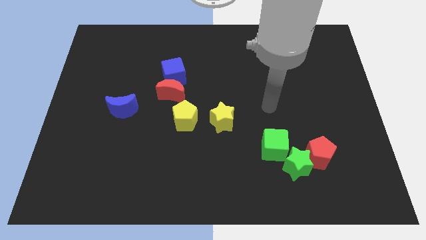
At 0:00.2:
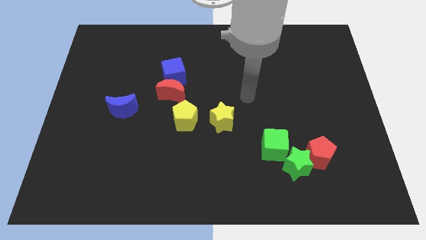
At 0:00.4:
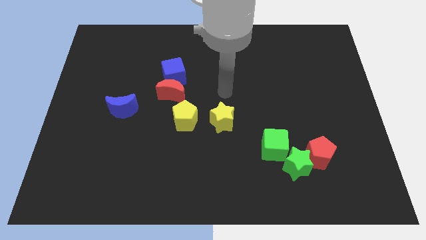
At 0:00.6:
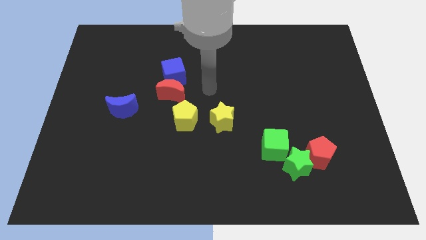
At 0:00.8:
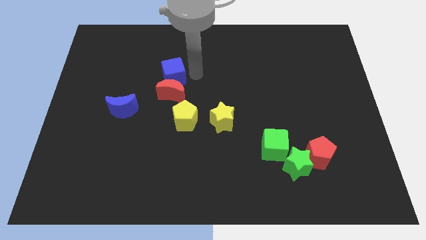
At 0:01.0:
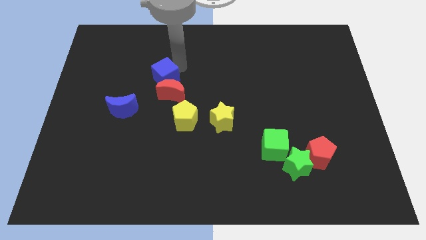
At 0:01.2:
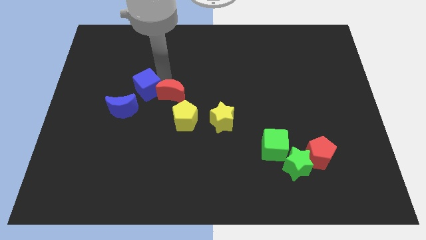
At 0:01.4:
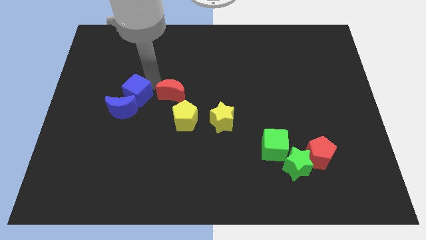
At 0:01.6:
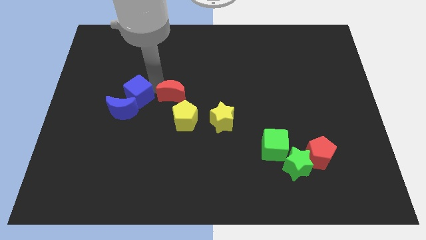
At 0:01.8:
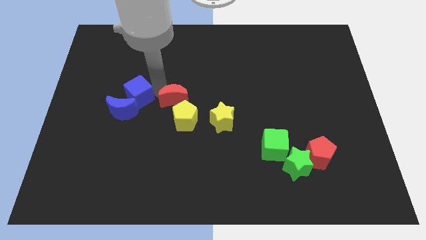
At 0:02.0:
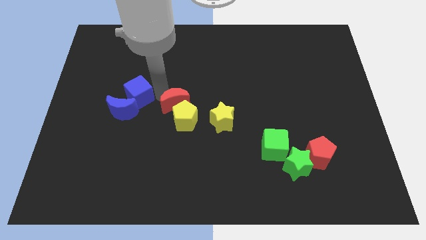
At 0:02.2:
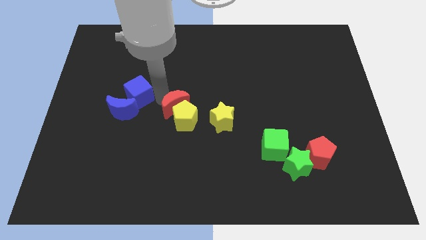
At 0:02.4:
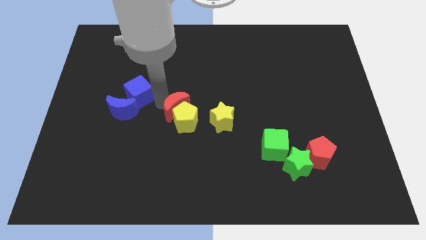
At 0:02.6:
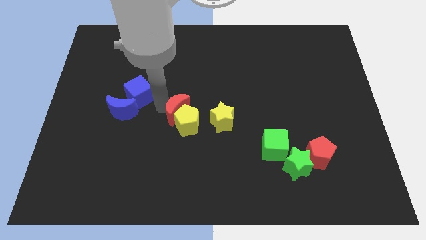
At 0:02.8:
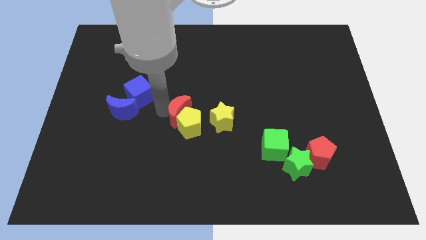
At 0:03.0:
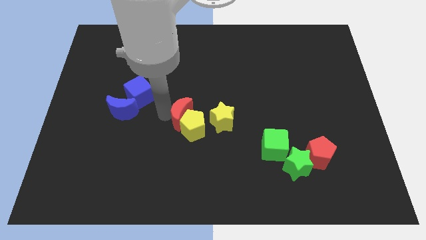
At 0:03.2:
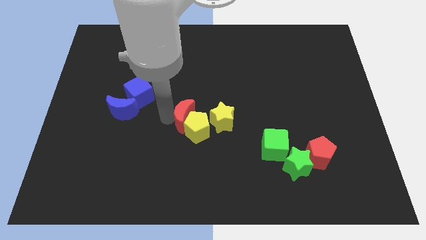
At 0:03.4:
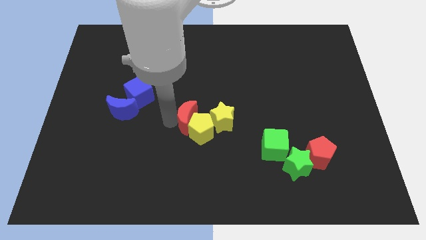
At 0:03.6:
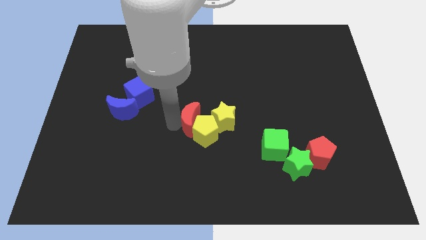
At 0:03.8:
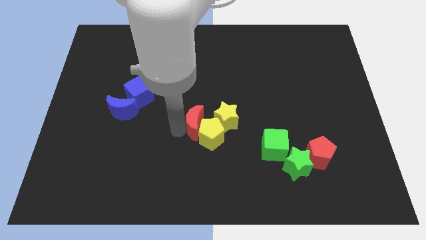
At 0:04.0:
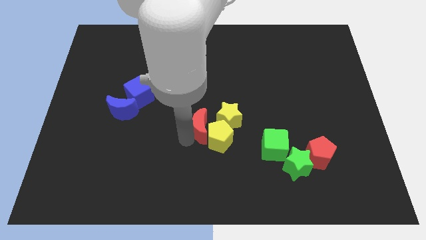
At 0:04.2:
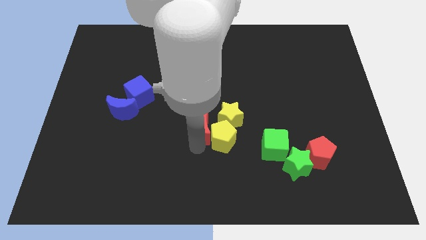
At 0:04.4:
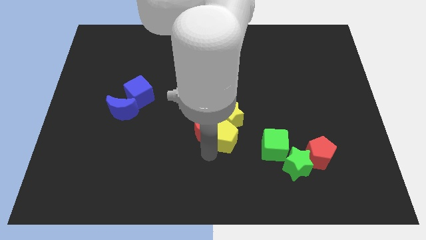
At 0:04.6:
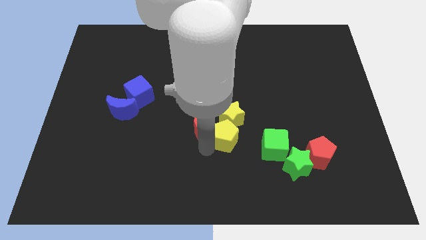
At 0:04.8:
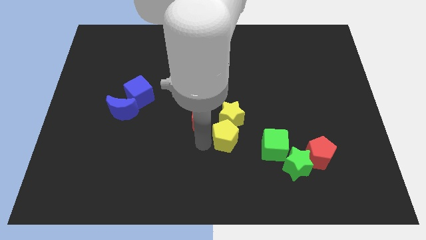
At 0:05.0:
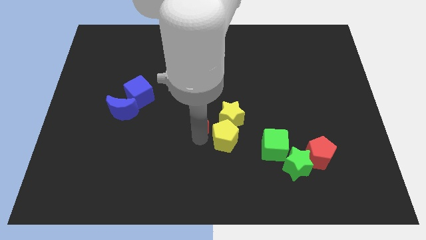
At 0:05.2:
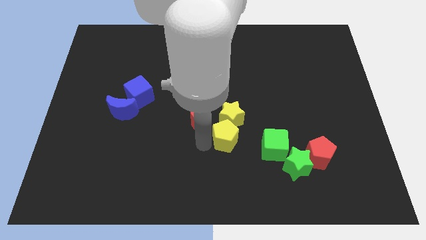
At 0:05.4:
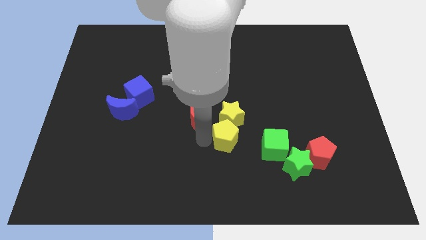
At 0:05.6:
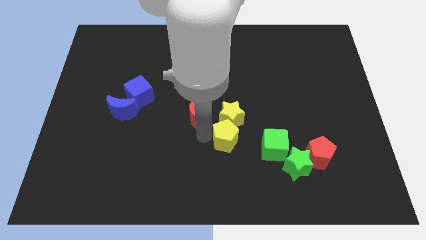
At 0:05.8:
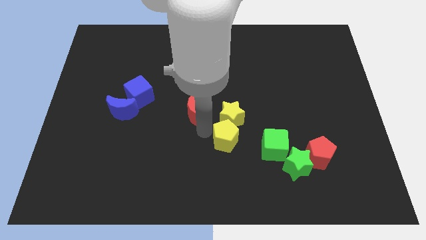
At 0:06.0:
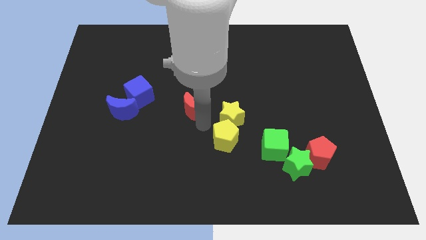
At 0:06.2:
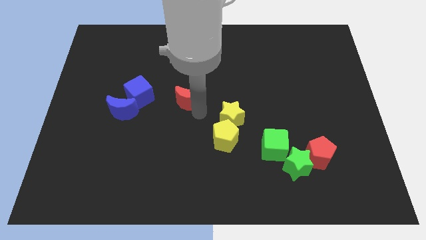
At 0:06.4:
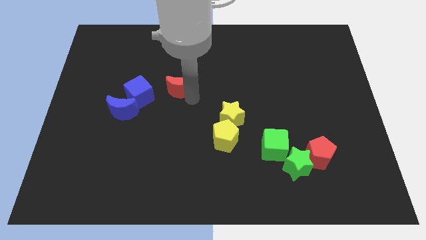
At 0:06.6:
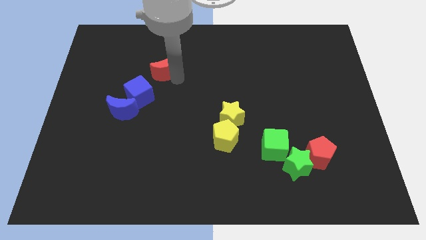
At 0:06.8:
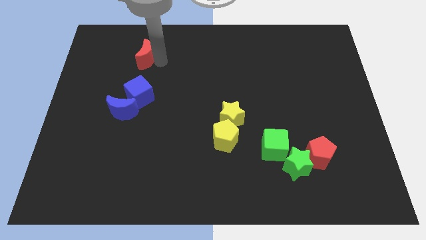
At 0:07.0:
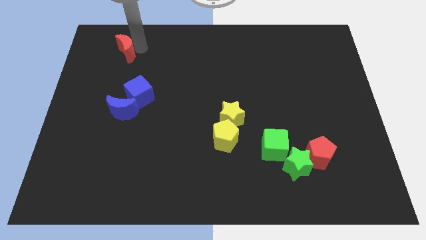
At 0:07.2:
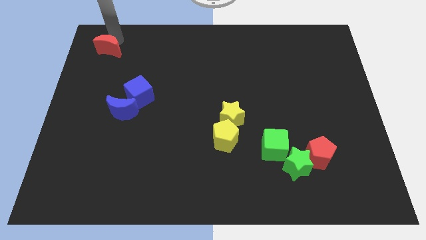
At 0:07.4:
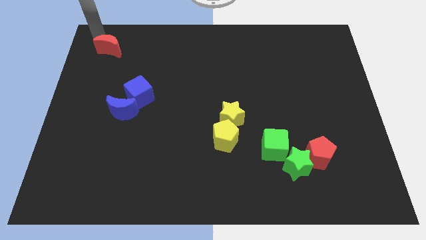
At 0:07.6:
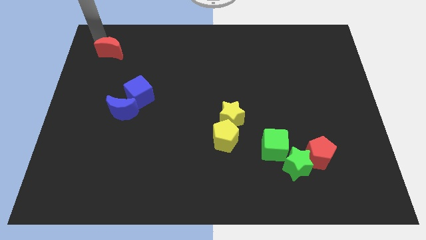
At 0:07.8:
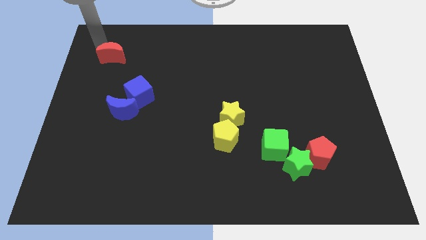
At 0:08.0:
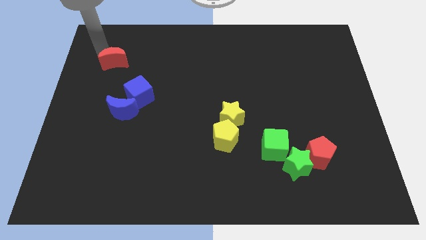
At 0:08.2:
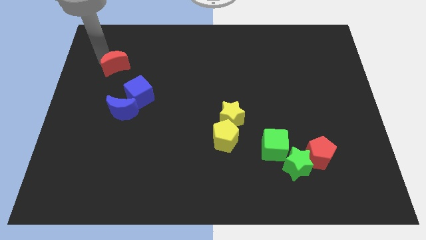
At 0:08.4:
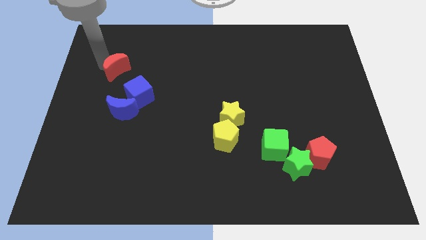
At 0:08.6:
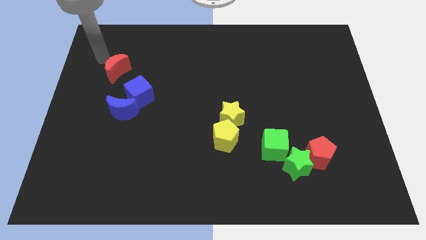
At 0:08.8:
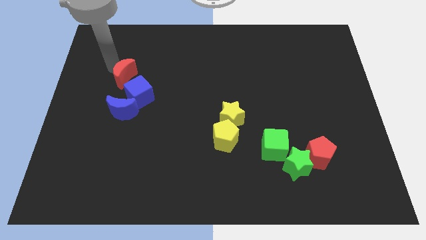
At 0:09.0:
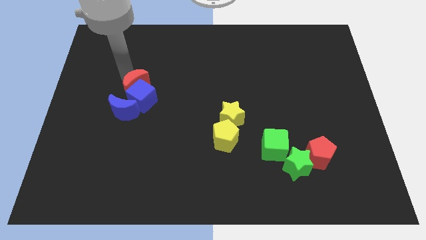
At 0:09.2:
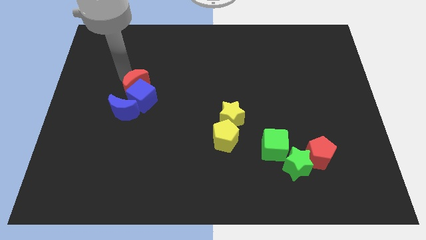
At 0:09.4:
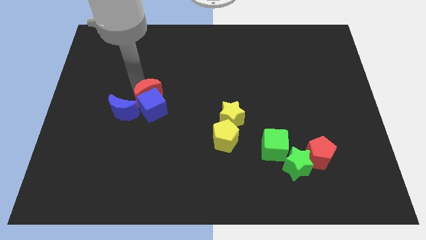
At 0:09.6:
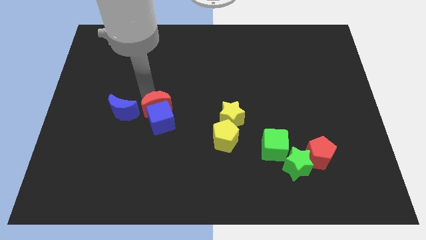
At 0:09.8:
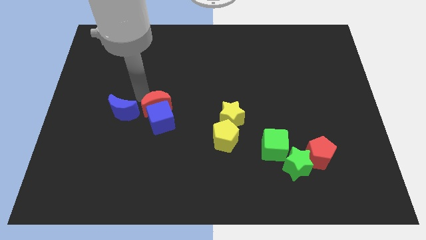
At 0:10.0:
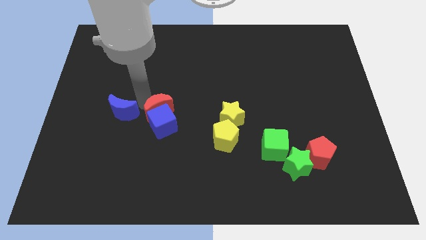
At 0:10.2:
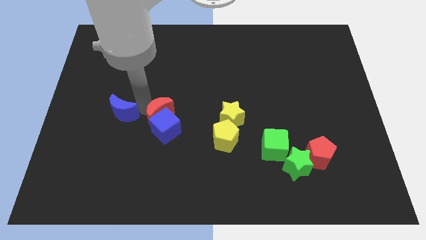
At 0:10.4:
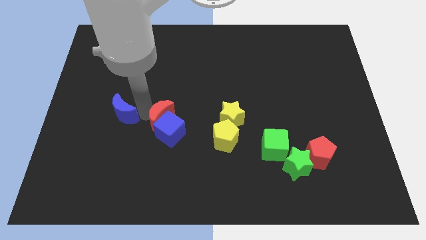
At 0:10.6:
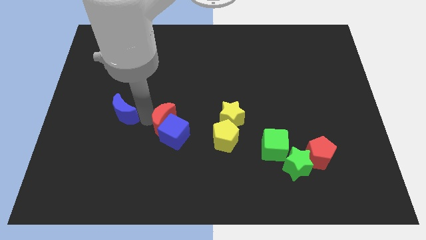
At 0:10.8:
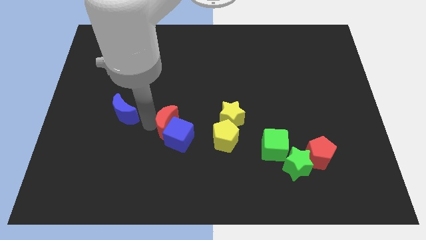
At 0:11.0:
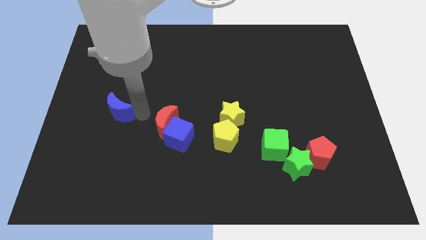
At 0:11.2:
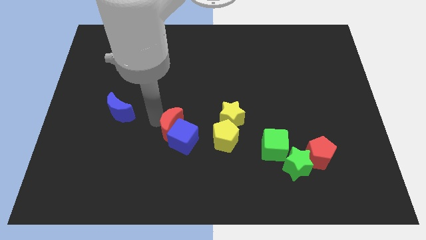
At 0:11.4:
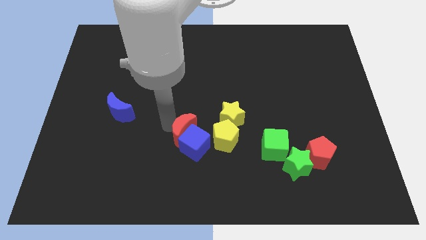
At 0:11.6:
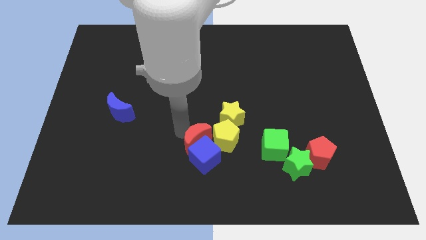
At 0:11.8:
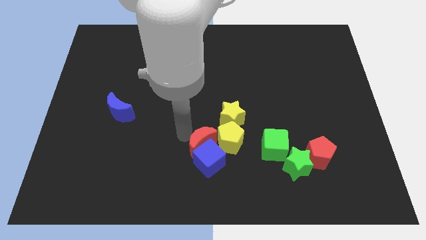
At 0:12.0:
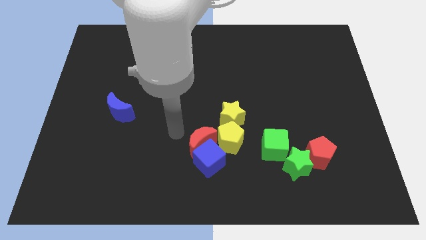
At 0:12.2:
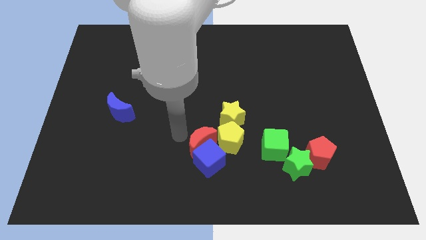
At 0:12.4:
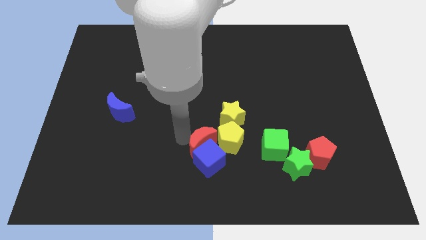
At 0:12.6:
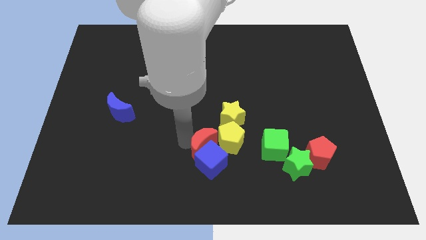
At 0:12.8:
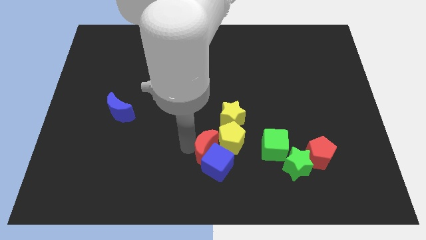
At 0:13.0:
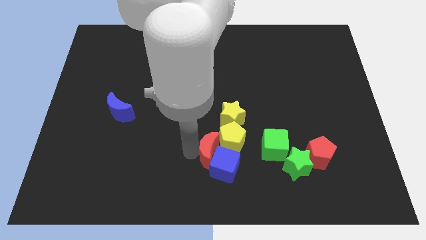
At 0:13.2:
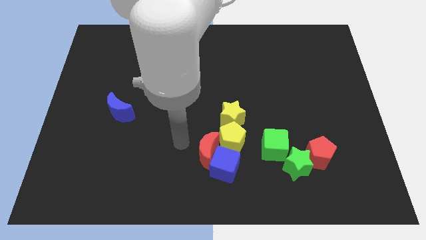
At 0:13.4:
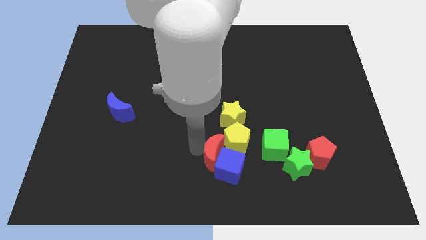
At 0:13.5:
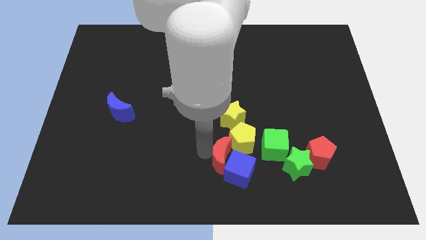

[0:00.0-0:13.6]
push the red moon left of the green star
